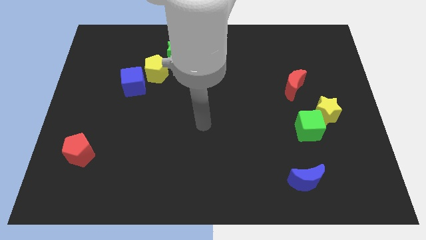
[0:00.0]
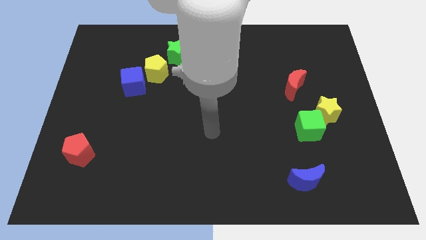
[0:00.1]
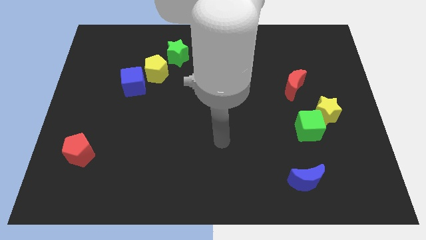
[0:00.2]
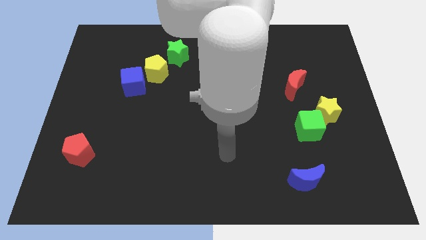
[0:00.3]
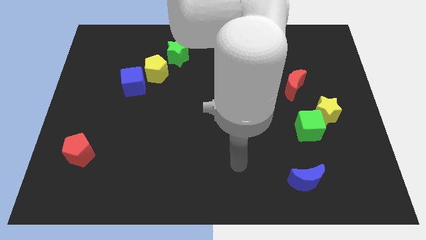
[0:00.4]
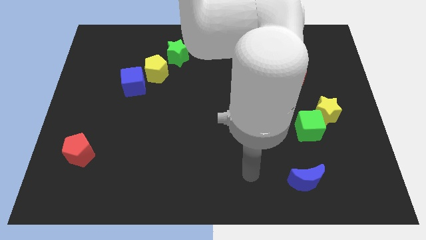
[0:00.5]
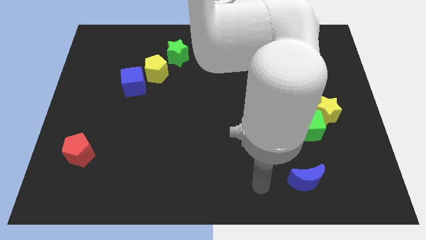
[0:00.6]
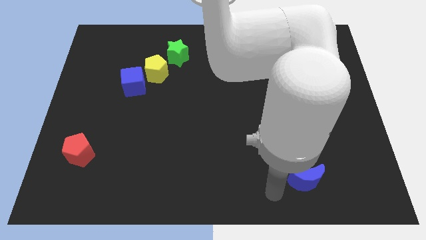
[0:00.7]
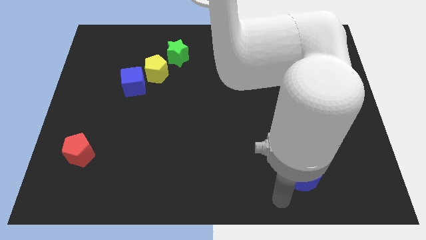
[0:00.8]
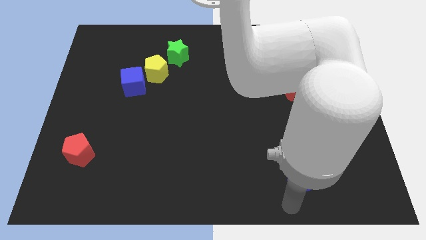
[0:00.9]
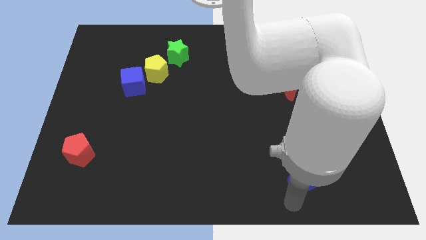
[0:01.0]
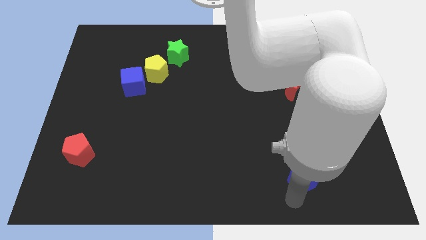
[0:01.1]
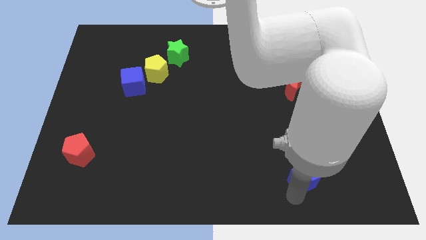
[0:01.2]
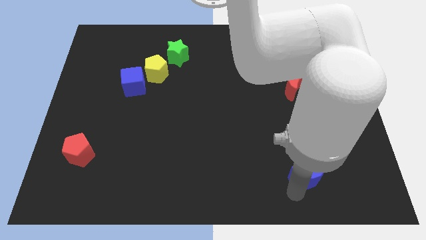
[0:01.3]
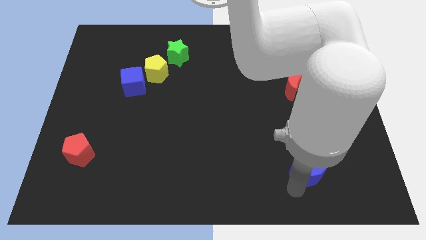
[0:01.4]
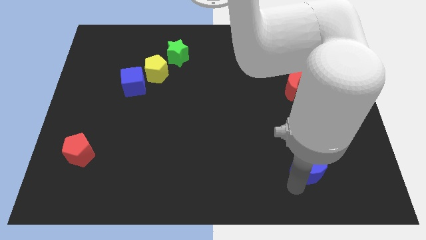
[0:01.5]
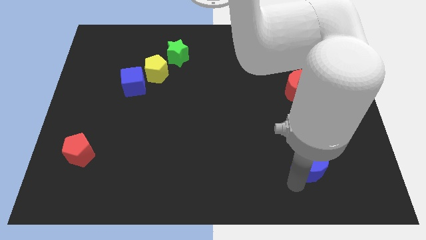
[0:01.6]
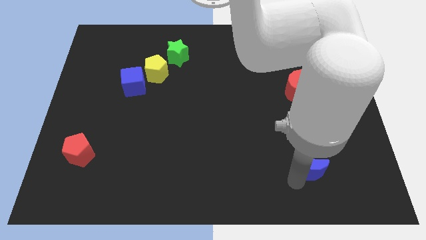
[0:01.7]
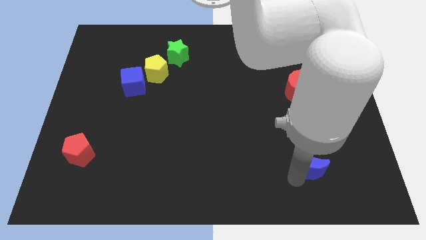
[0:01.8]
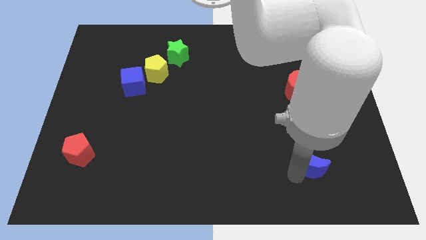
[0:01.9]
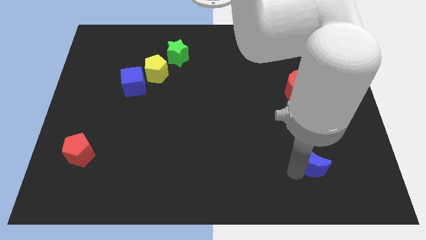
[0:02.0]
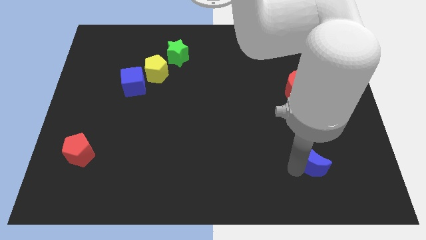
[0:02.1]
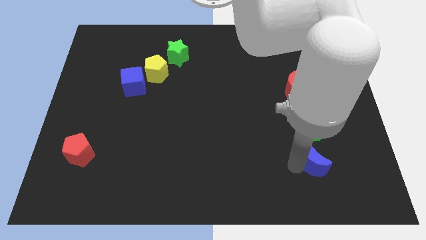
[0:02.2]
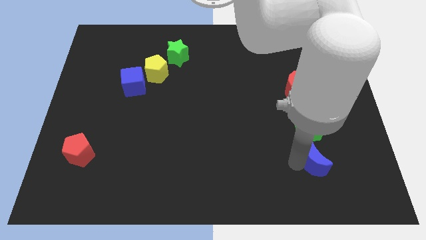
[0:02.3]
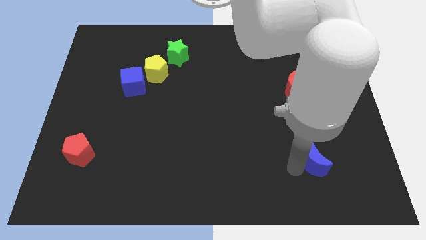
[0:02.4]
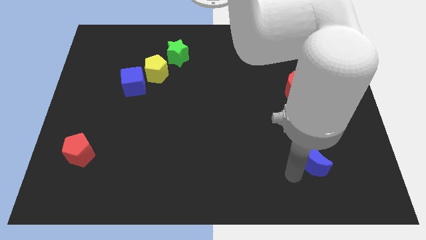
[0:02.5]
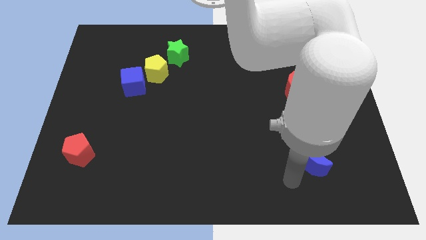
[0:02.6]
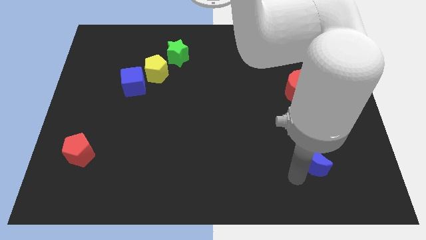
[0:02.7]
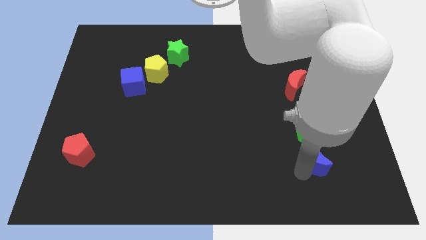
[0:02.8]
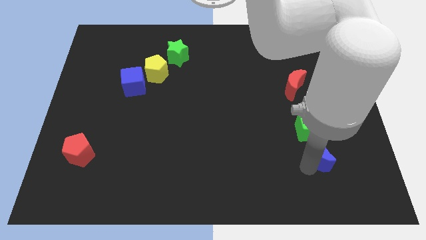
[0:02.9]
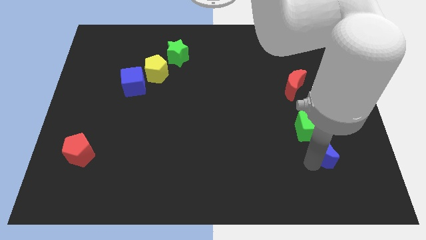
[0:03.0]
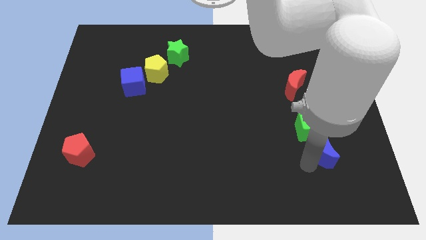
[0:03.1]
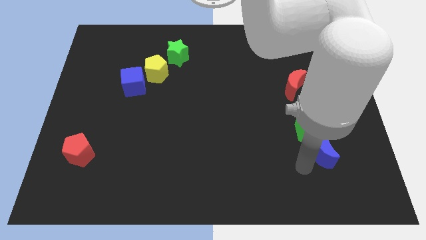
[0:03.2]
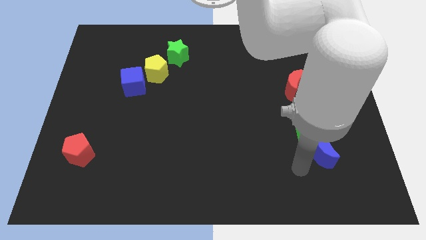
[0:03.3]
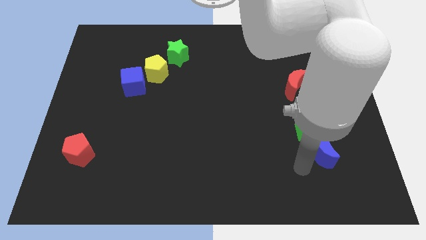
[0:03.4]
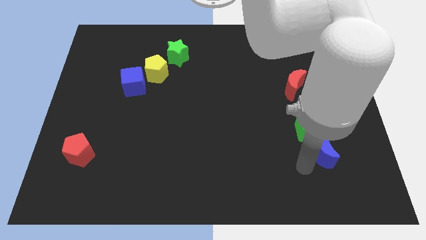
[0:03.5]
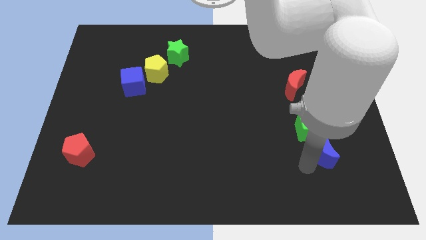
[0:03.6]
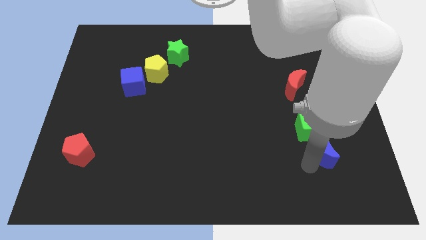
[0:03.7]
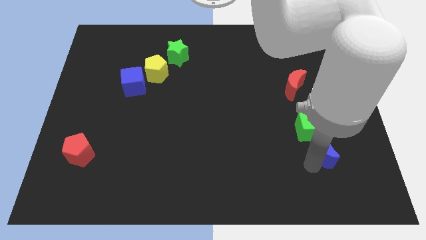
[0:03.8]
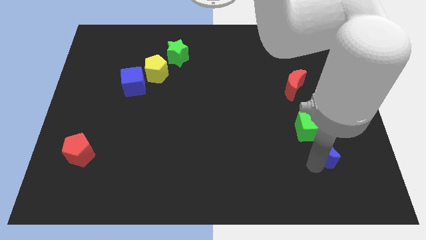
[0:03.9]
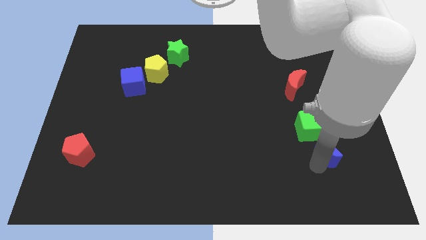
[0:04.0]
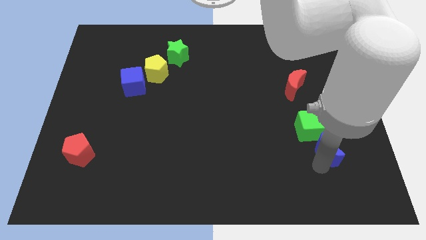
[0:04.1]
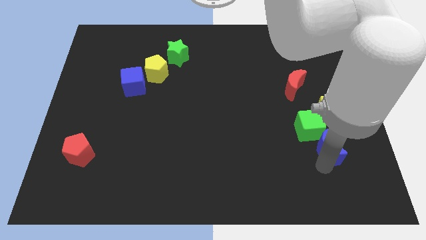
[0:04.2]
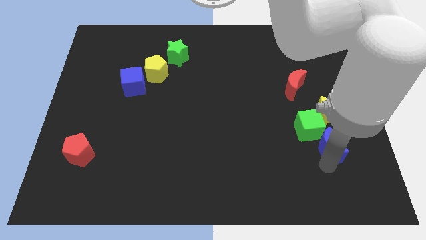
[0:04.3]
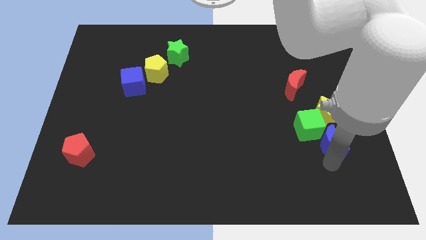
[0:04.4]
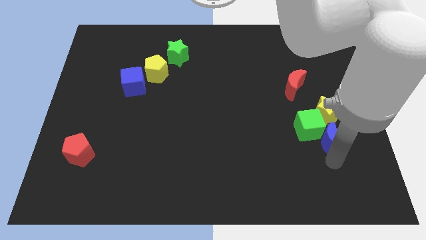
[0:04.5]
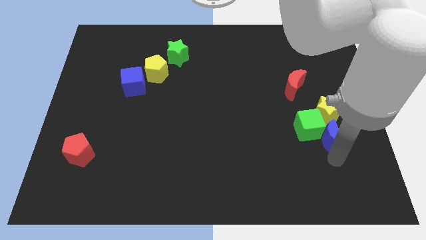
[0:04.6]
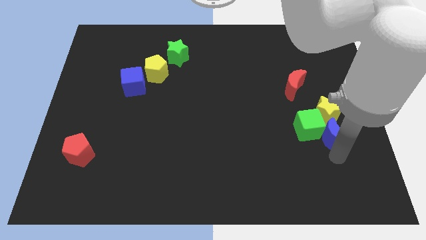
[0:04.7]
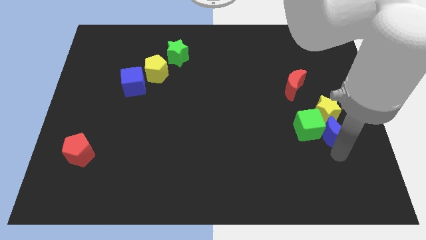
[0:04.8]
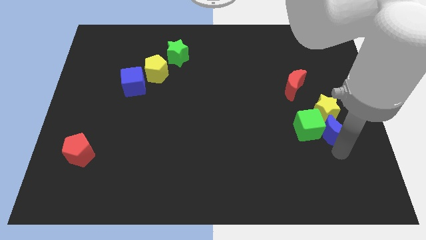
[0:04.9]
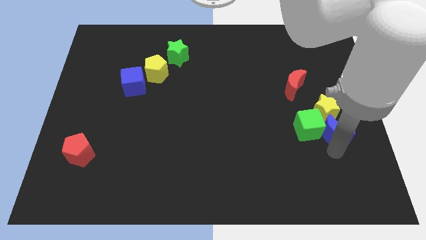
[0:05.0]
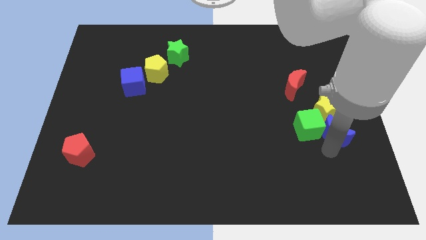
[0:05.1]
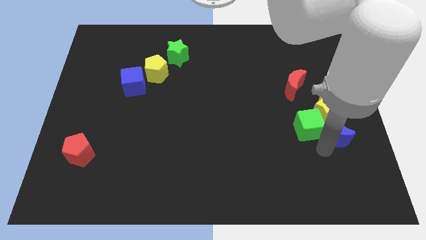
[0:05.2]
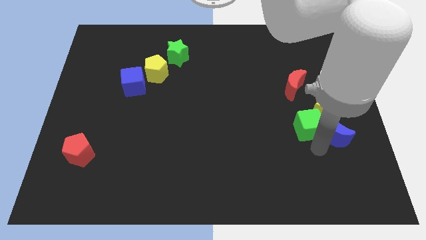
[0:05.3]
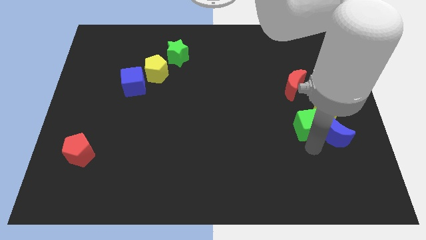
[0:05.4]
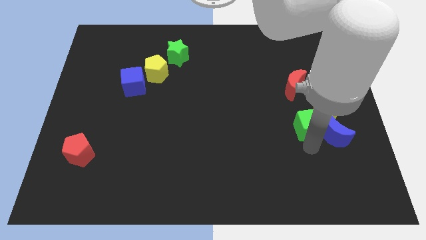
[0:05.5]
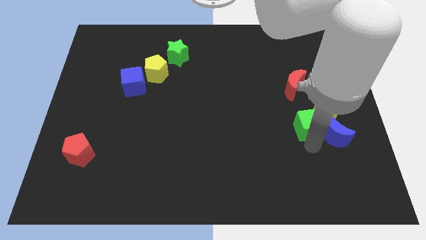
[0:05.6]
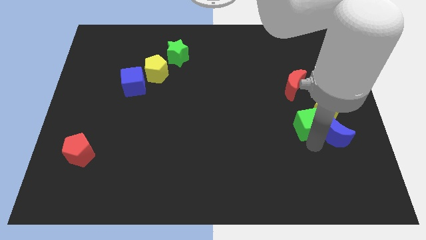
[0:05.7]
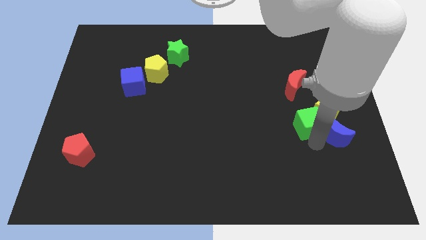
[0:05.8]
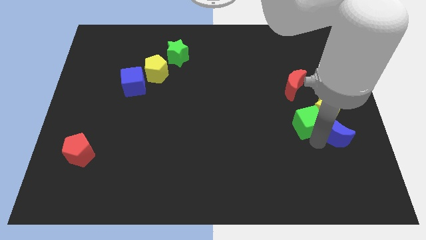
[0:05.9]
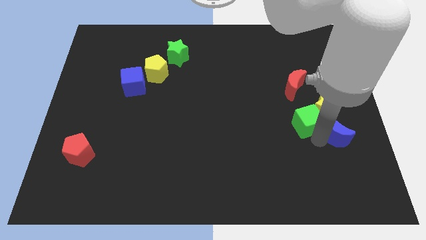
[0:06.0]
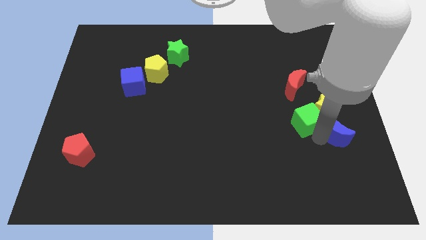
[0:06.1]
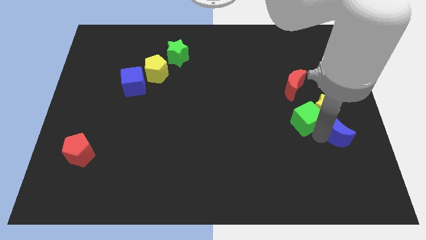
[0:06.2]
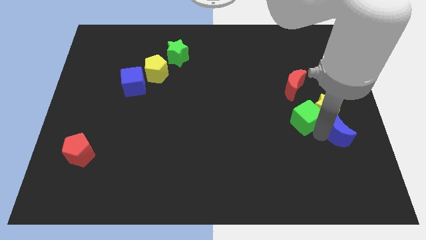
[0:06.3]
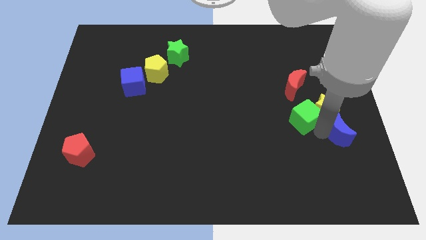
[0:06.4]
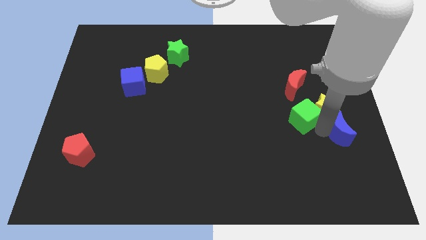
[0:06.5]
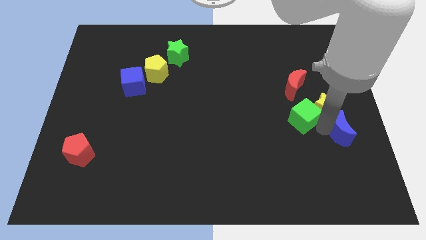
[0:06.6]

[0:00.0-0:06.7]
push the blue moon to the center right
